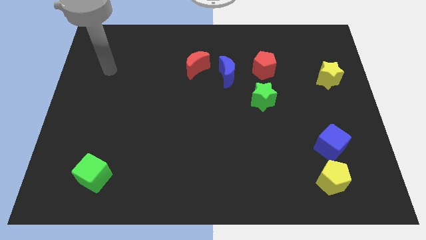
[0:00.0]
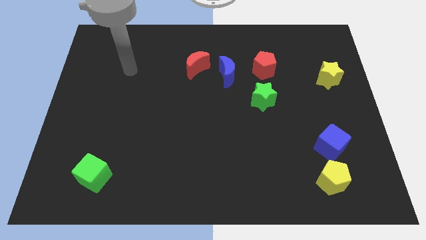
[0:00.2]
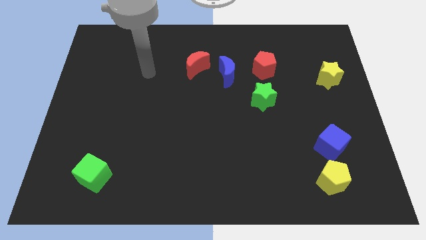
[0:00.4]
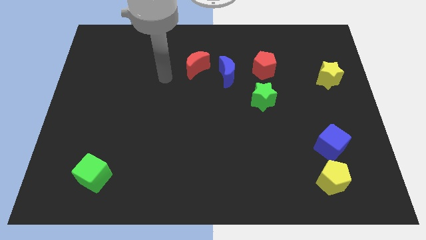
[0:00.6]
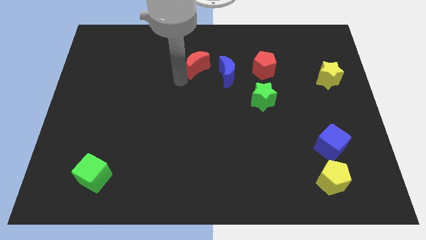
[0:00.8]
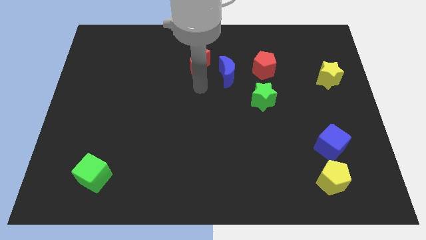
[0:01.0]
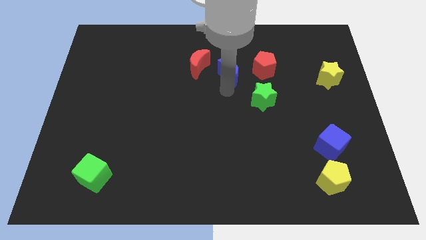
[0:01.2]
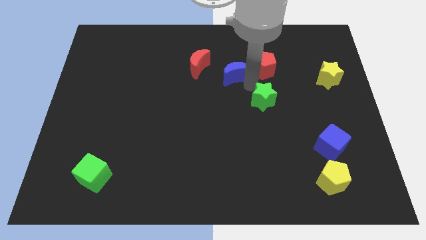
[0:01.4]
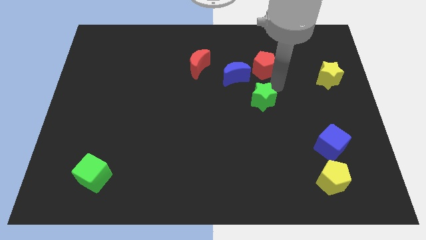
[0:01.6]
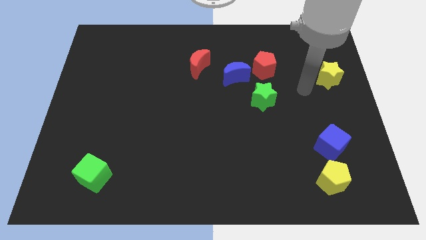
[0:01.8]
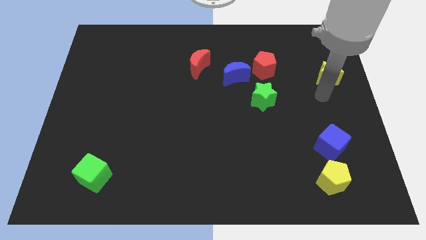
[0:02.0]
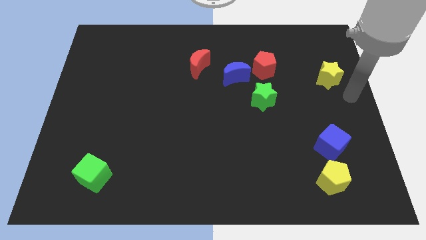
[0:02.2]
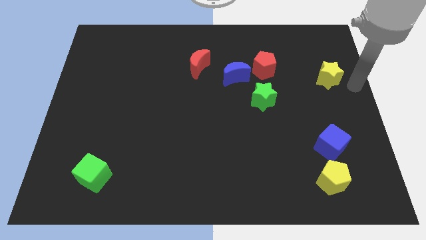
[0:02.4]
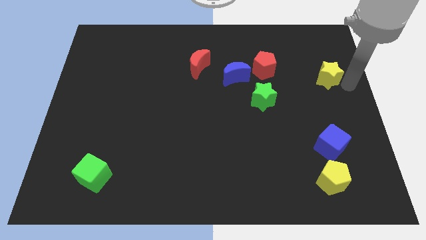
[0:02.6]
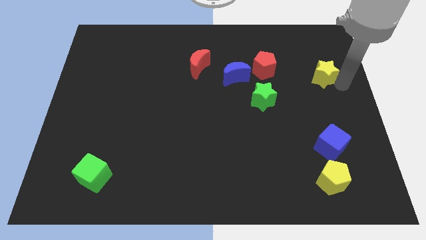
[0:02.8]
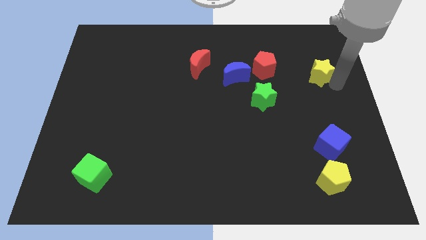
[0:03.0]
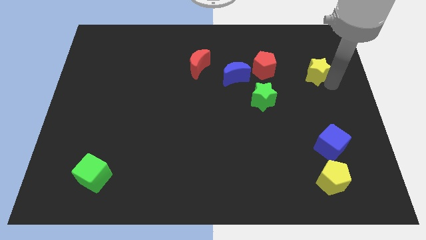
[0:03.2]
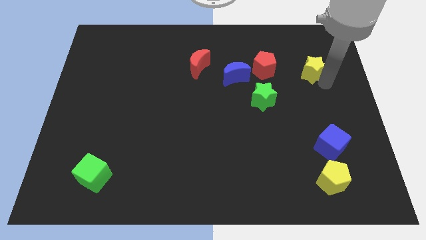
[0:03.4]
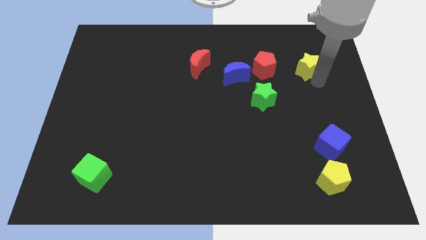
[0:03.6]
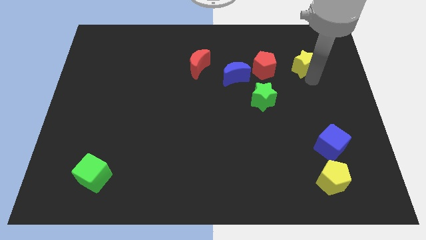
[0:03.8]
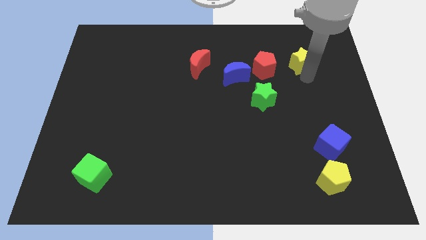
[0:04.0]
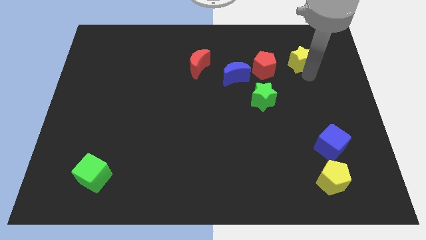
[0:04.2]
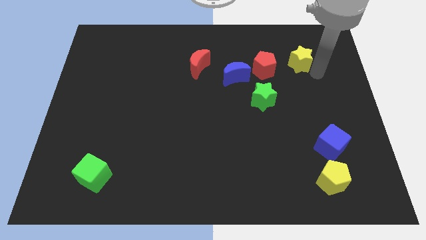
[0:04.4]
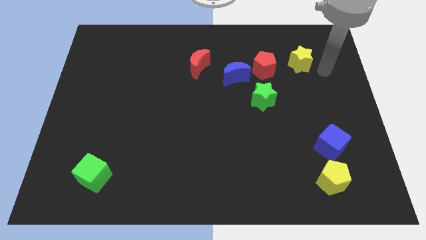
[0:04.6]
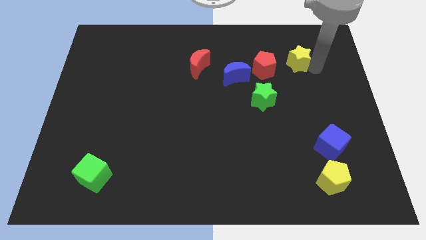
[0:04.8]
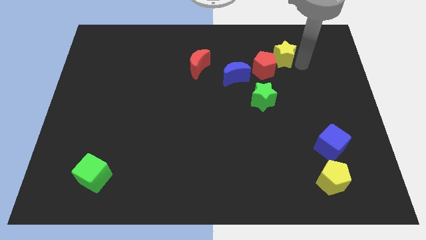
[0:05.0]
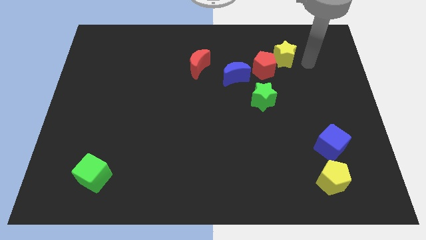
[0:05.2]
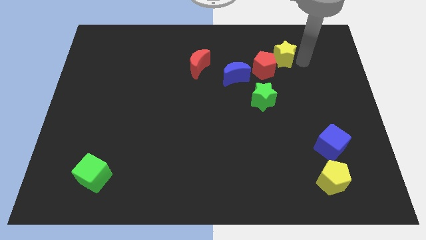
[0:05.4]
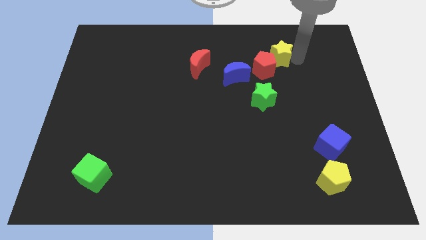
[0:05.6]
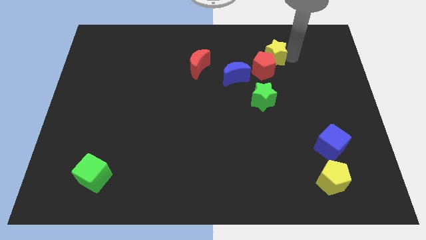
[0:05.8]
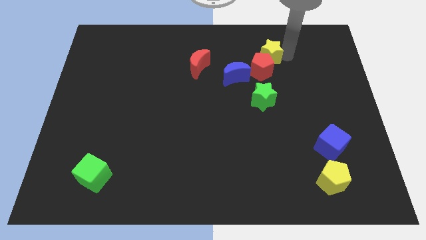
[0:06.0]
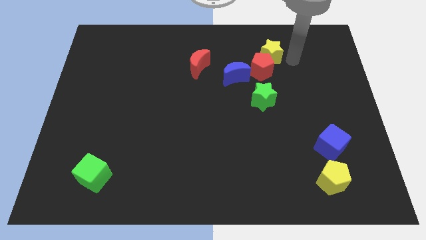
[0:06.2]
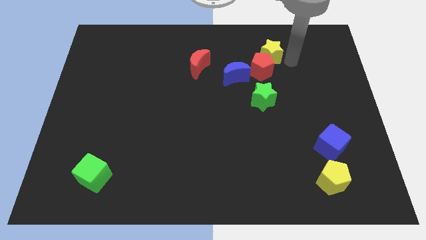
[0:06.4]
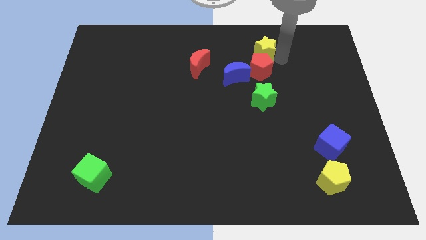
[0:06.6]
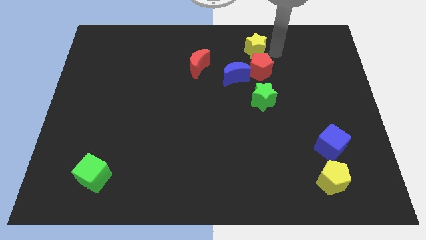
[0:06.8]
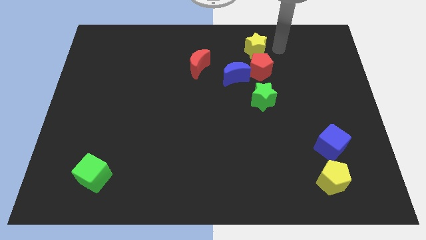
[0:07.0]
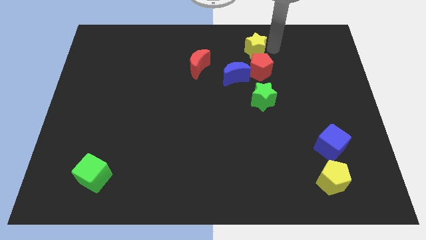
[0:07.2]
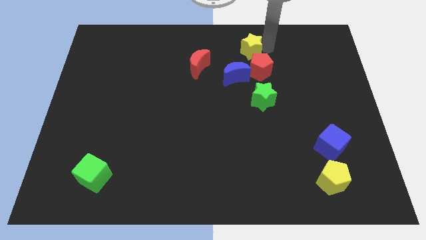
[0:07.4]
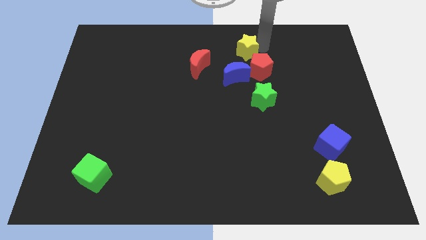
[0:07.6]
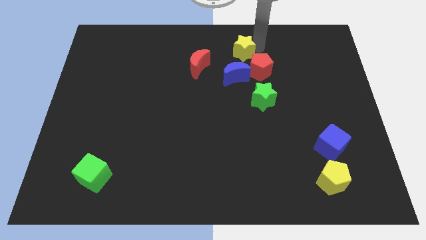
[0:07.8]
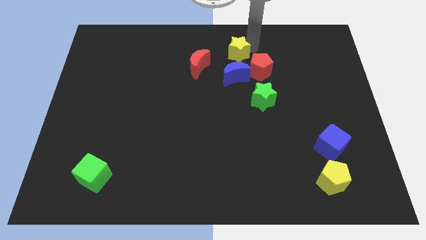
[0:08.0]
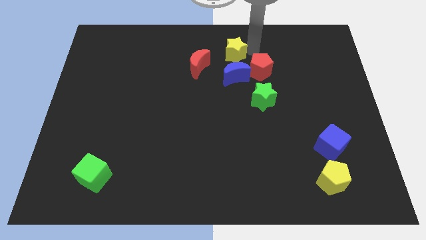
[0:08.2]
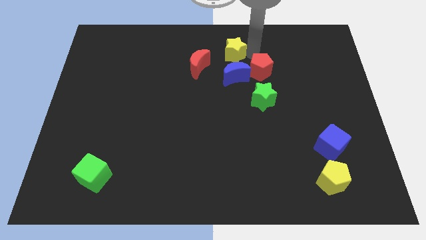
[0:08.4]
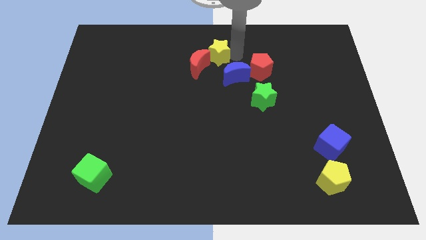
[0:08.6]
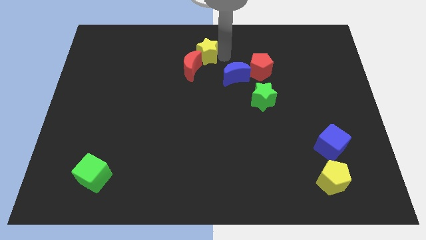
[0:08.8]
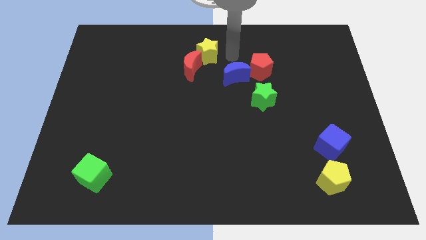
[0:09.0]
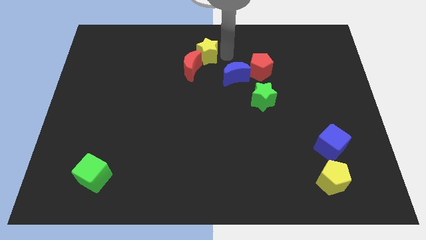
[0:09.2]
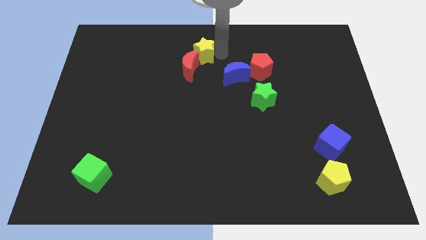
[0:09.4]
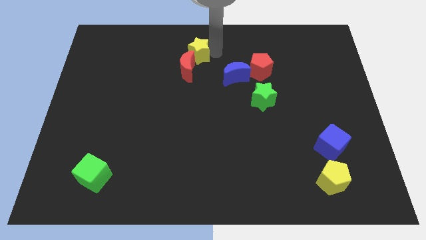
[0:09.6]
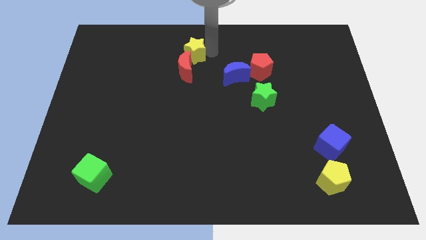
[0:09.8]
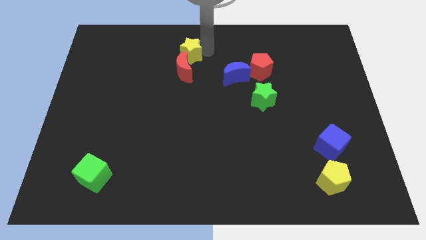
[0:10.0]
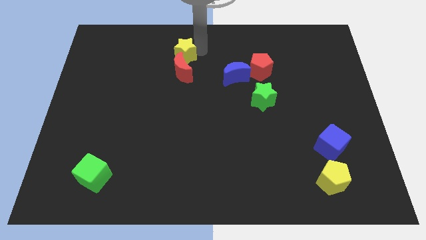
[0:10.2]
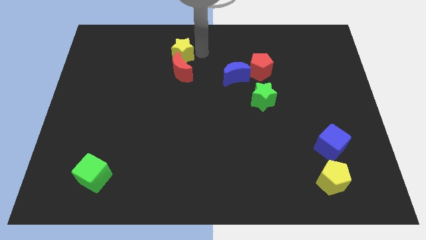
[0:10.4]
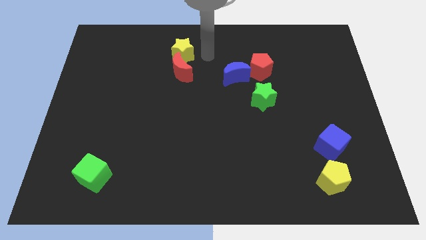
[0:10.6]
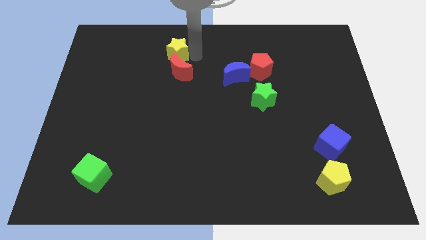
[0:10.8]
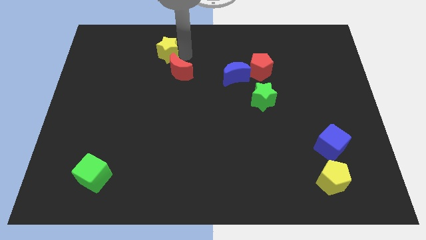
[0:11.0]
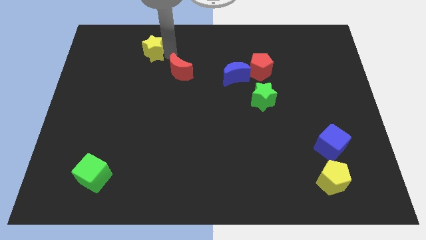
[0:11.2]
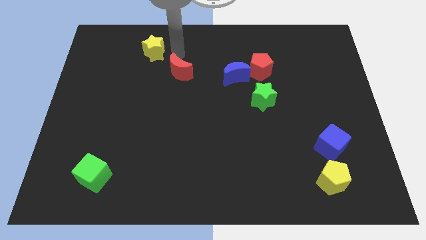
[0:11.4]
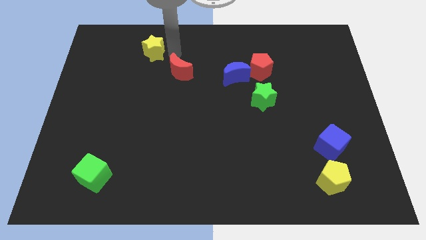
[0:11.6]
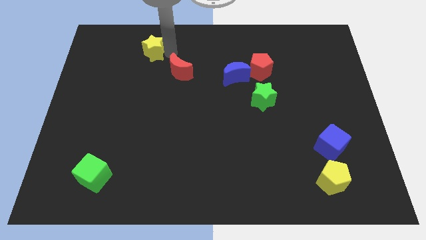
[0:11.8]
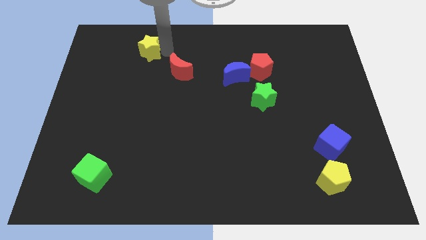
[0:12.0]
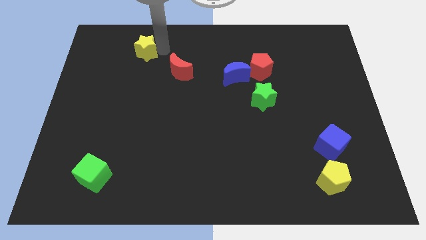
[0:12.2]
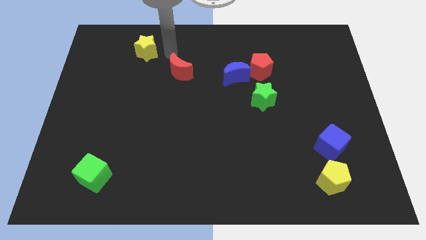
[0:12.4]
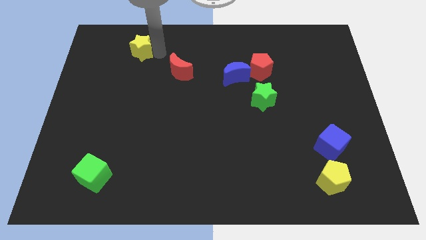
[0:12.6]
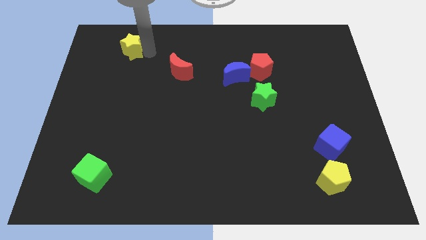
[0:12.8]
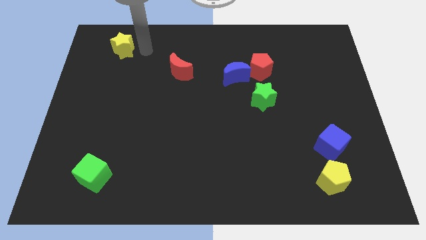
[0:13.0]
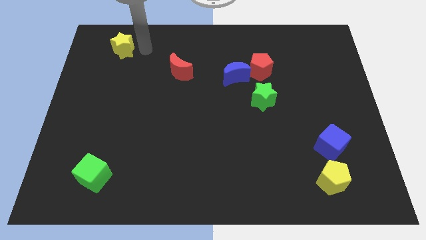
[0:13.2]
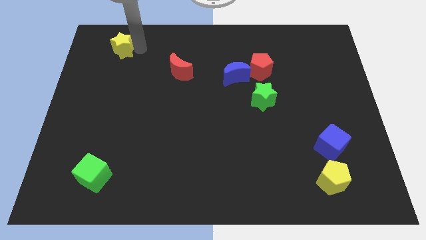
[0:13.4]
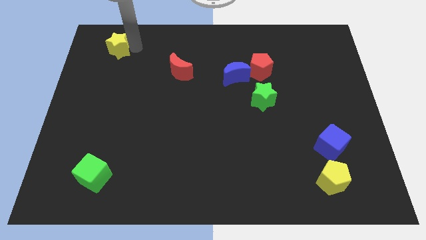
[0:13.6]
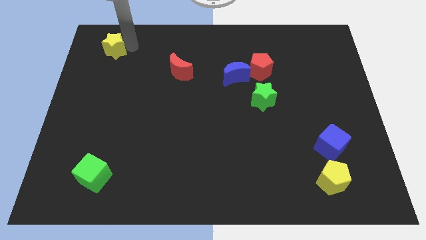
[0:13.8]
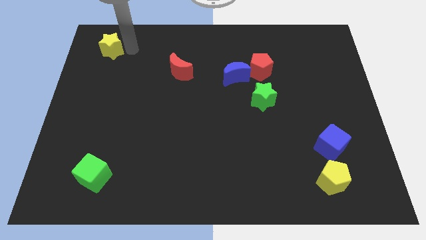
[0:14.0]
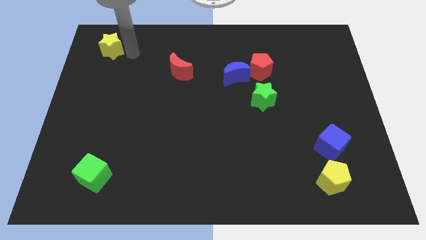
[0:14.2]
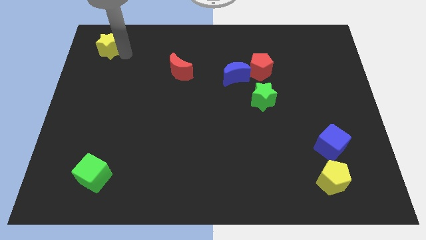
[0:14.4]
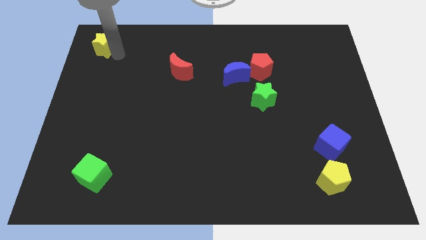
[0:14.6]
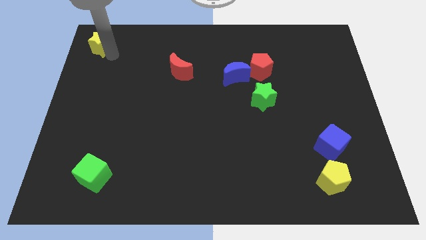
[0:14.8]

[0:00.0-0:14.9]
move the yellow star to the top left corner
